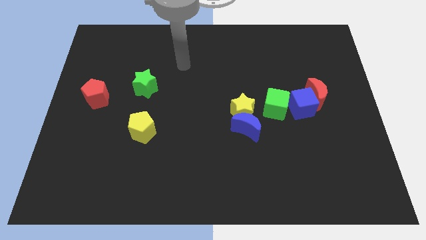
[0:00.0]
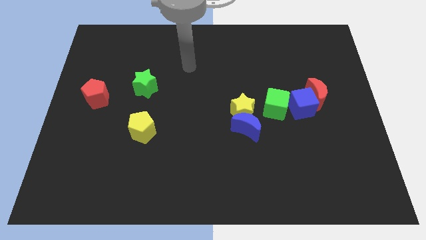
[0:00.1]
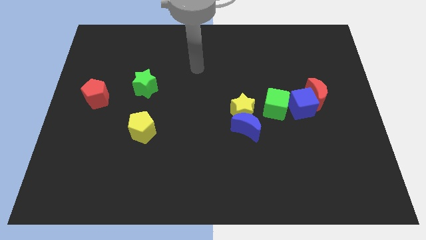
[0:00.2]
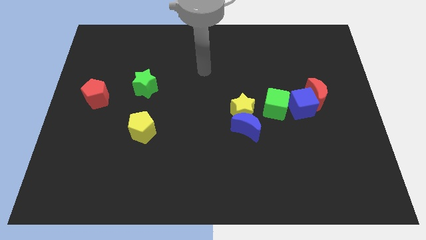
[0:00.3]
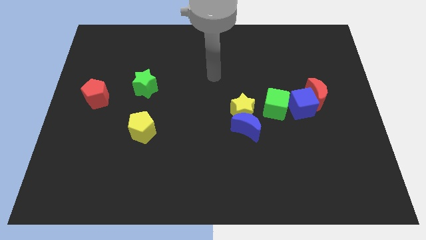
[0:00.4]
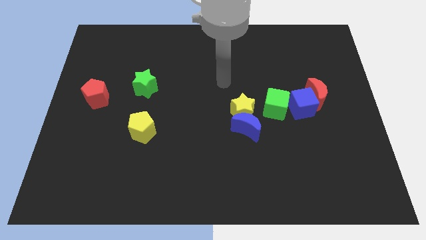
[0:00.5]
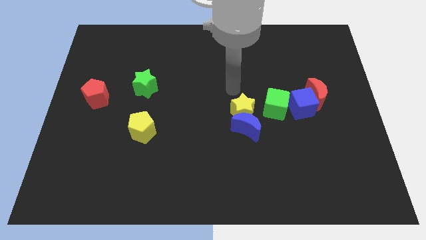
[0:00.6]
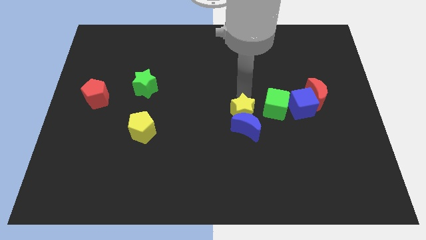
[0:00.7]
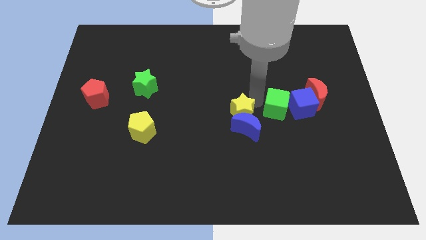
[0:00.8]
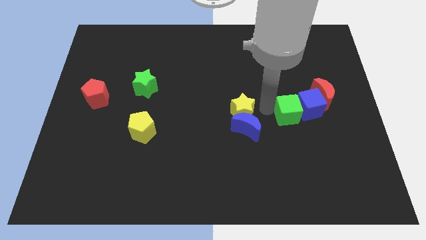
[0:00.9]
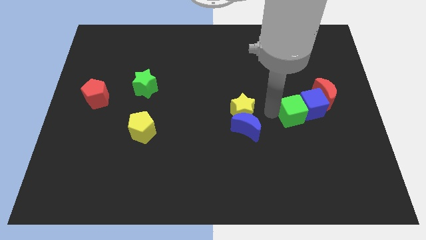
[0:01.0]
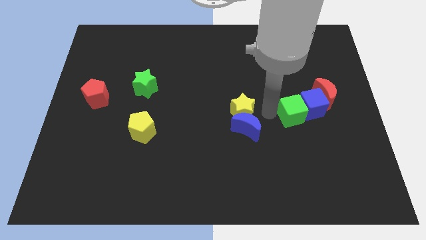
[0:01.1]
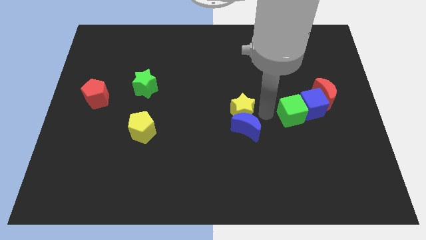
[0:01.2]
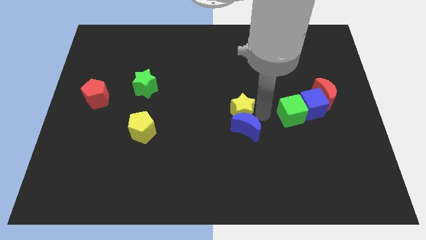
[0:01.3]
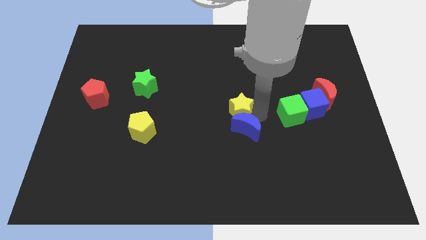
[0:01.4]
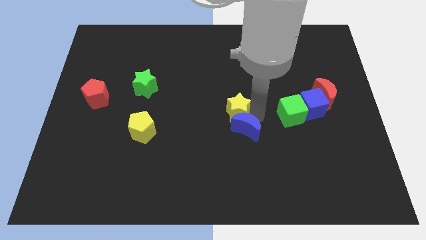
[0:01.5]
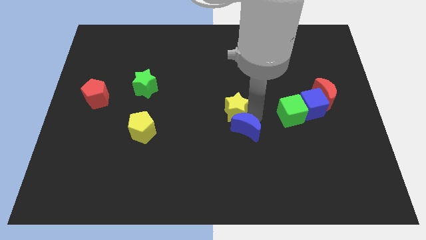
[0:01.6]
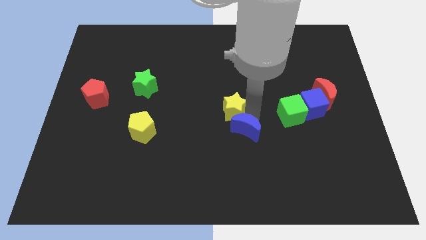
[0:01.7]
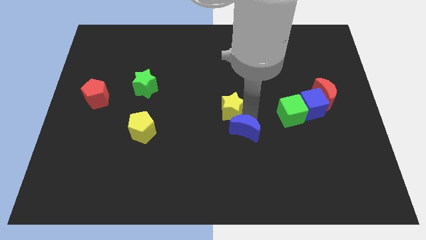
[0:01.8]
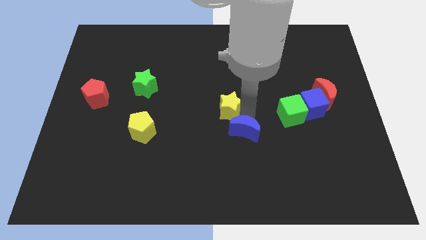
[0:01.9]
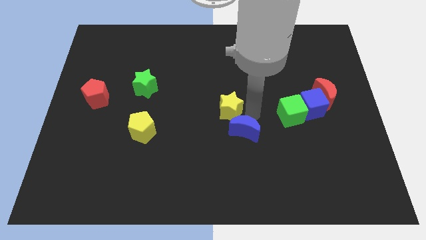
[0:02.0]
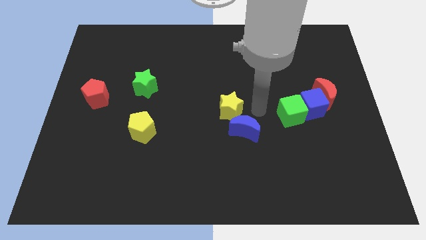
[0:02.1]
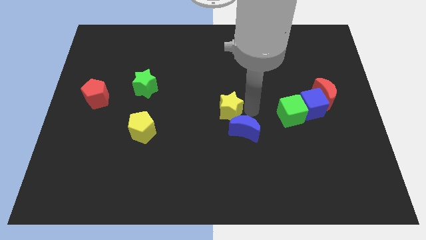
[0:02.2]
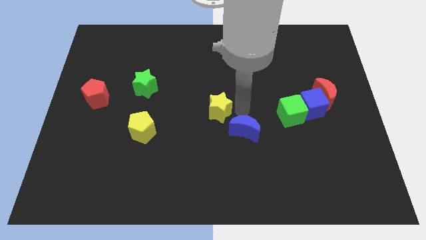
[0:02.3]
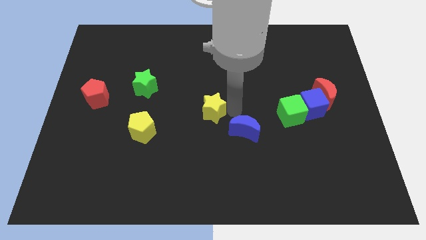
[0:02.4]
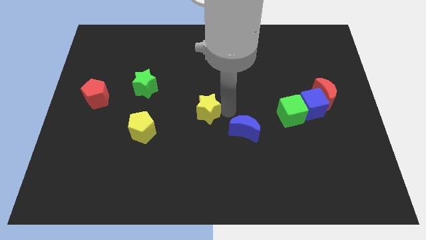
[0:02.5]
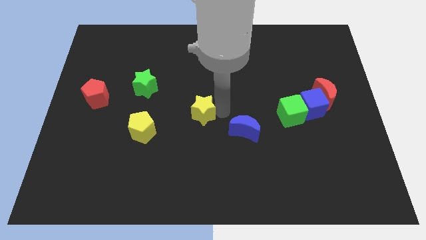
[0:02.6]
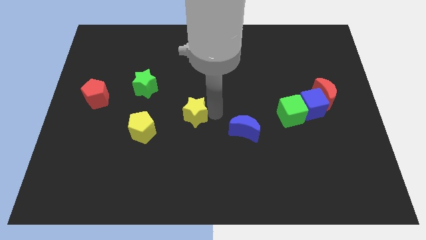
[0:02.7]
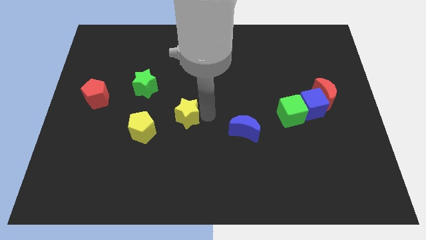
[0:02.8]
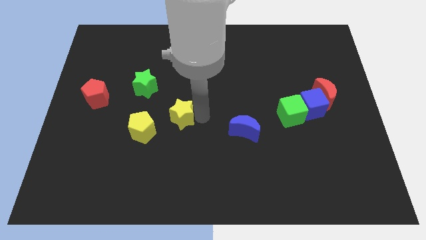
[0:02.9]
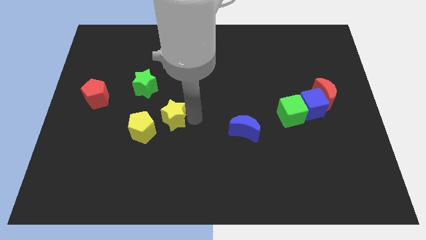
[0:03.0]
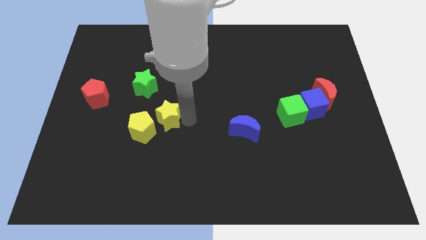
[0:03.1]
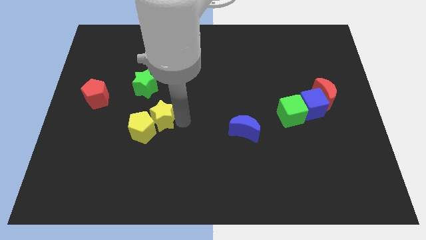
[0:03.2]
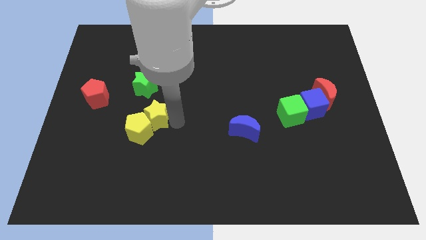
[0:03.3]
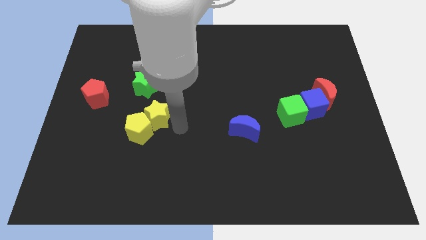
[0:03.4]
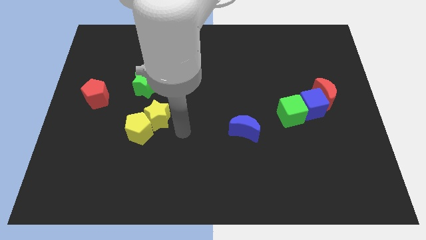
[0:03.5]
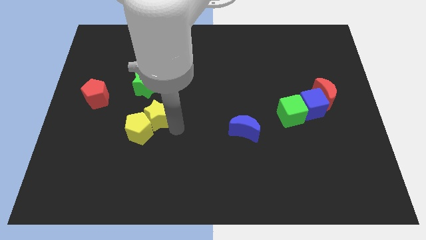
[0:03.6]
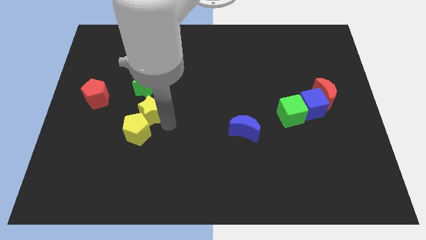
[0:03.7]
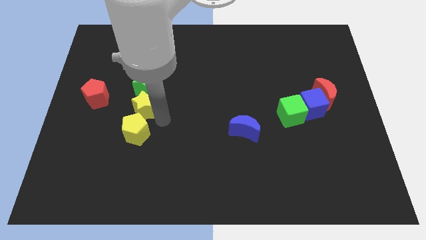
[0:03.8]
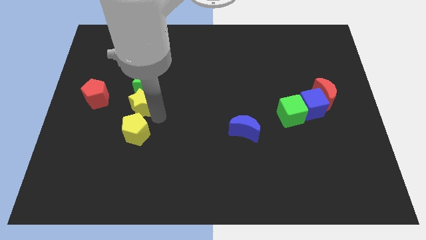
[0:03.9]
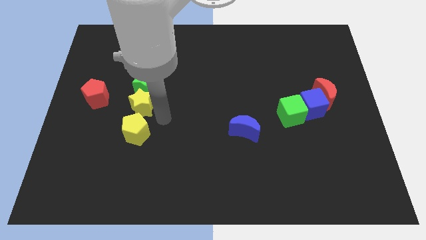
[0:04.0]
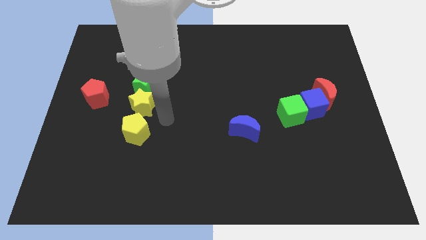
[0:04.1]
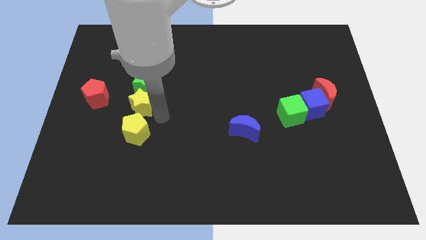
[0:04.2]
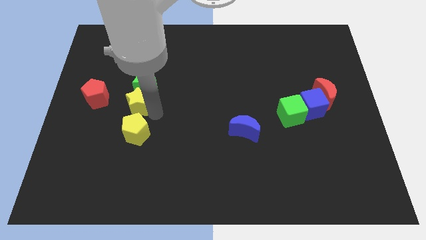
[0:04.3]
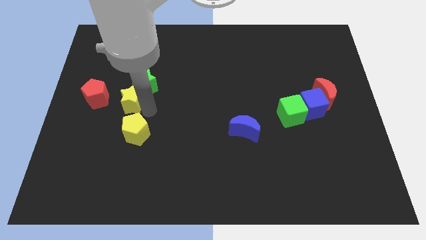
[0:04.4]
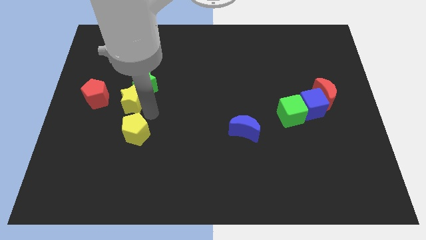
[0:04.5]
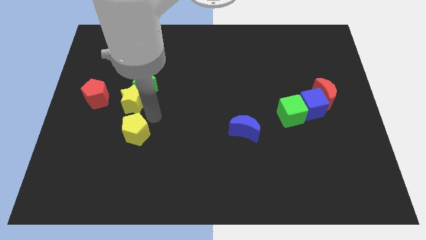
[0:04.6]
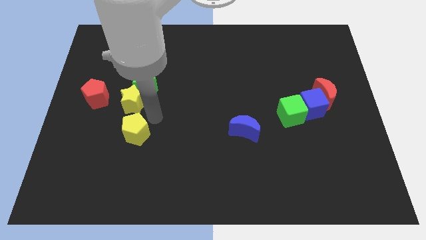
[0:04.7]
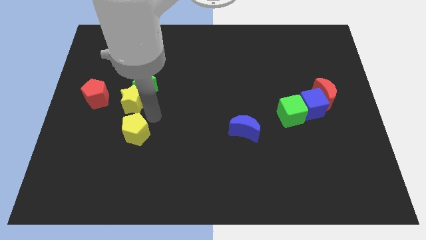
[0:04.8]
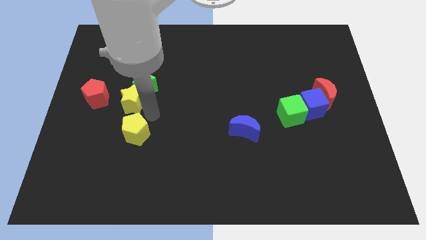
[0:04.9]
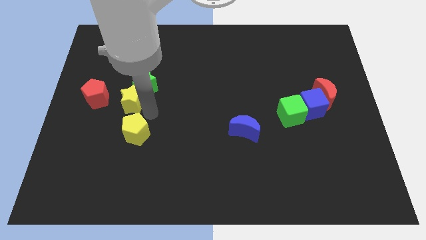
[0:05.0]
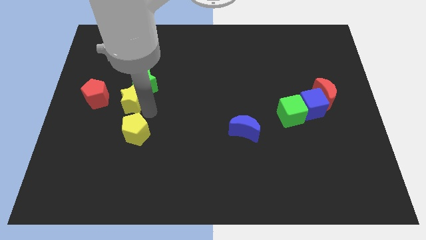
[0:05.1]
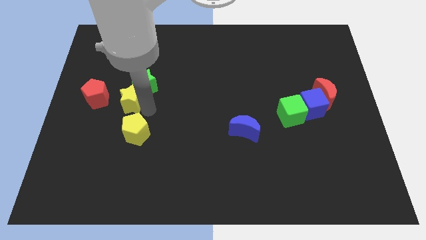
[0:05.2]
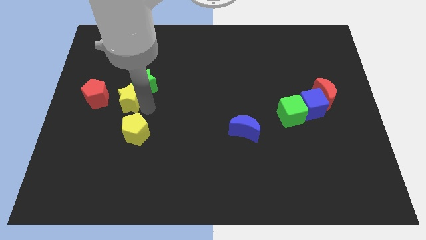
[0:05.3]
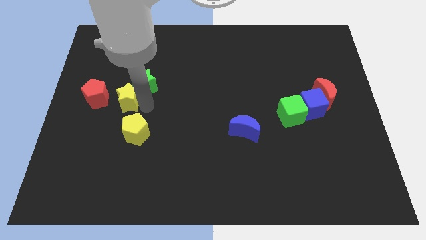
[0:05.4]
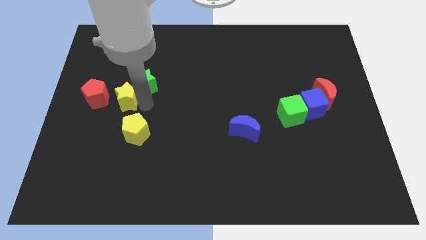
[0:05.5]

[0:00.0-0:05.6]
push the yellow star to the left side of the green star

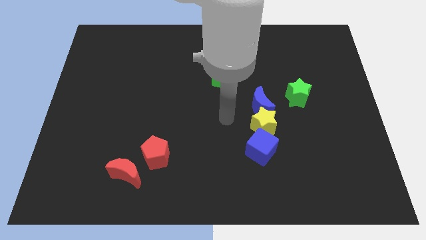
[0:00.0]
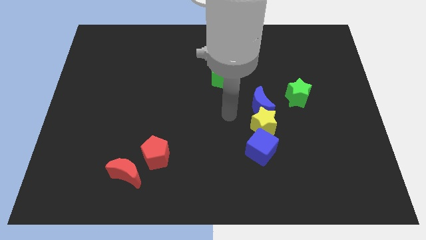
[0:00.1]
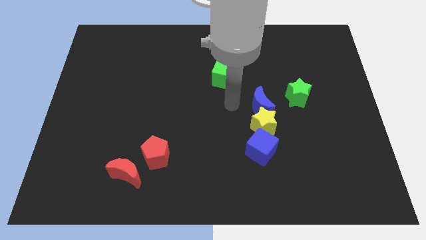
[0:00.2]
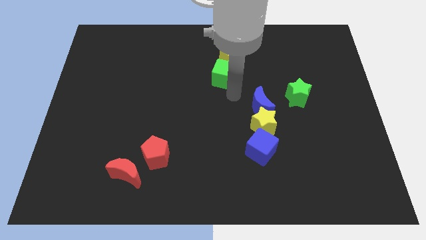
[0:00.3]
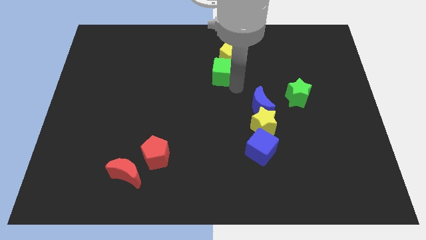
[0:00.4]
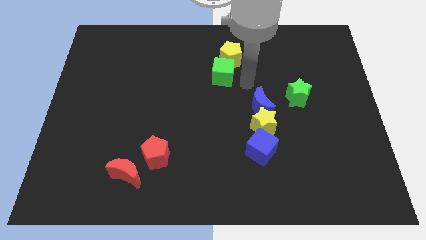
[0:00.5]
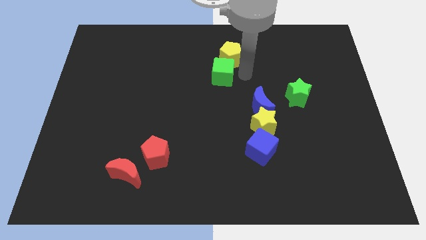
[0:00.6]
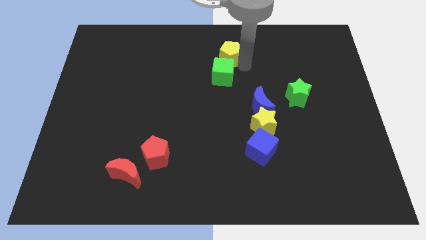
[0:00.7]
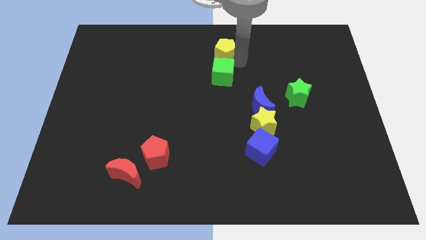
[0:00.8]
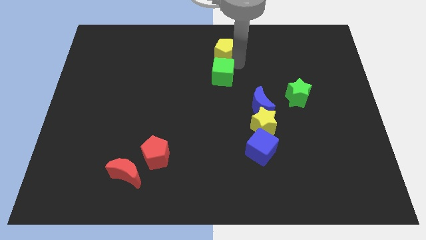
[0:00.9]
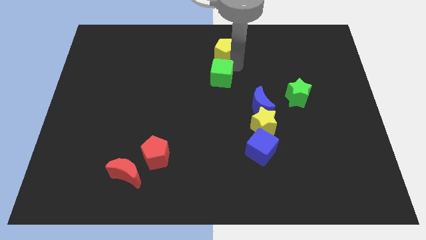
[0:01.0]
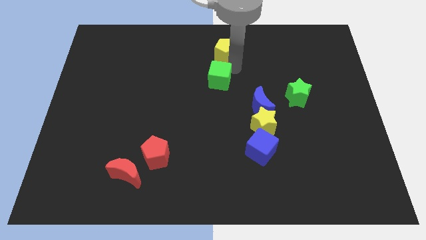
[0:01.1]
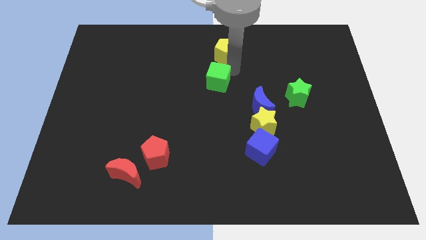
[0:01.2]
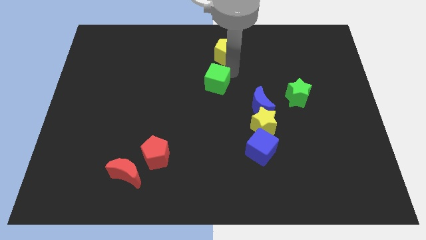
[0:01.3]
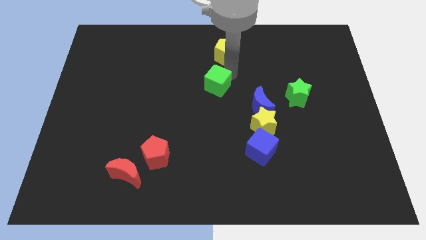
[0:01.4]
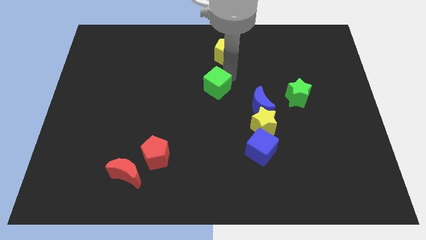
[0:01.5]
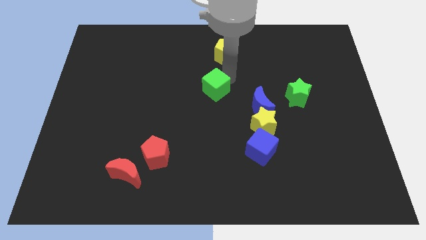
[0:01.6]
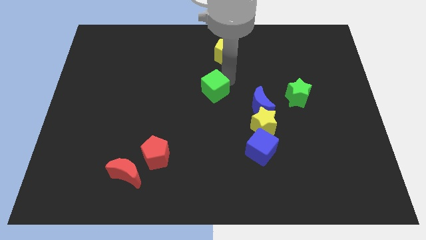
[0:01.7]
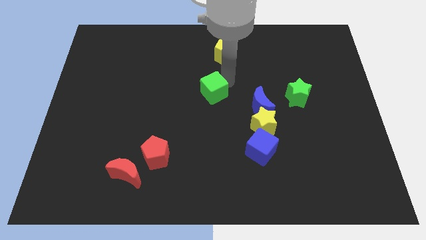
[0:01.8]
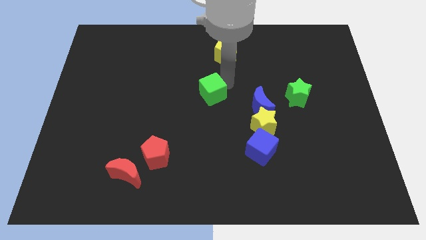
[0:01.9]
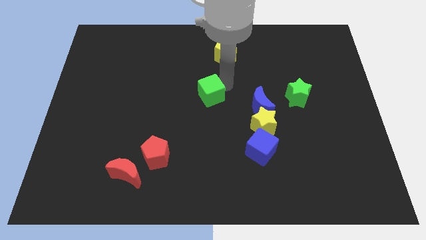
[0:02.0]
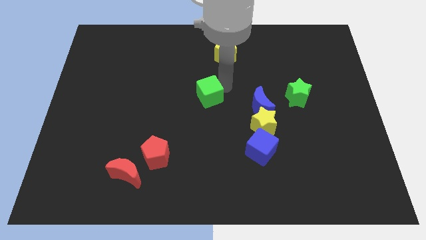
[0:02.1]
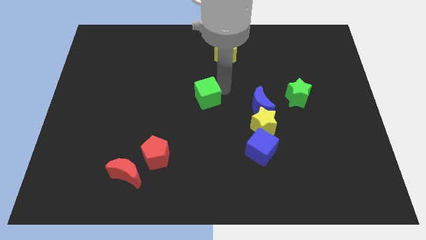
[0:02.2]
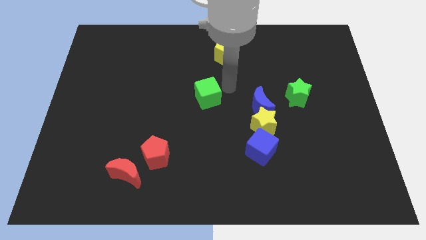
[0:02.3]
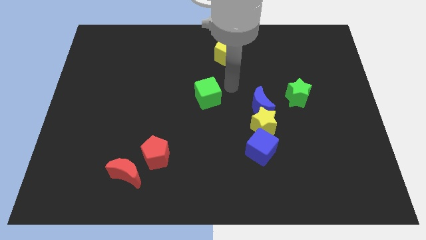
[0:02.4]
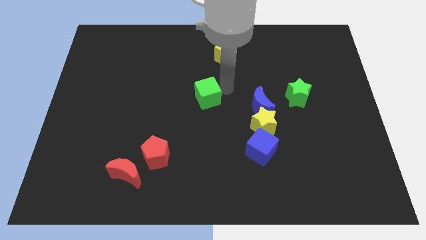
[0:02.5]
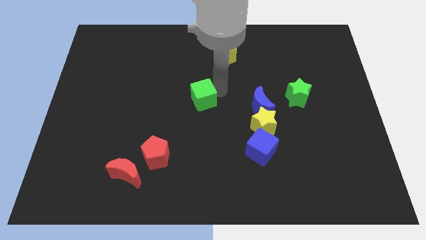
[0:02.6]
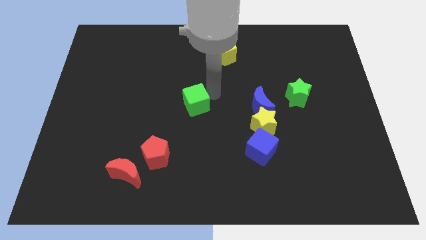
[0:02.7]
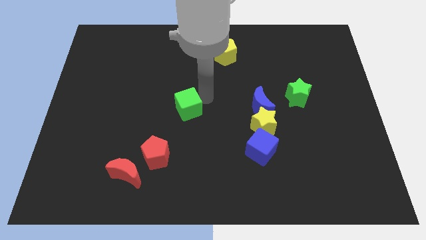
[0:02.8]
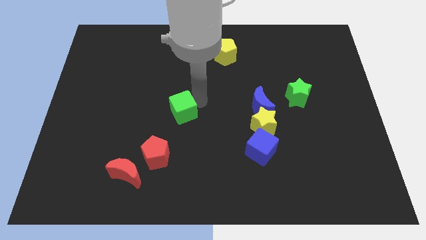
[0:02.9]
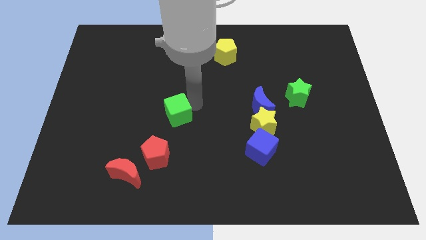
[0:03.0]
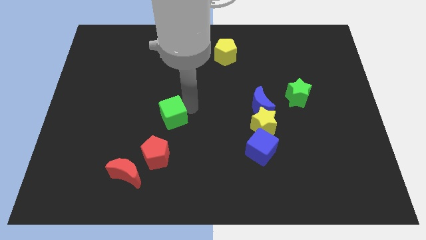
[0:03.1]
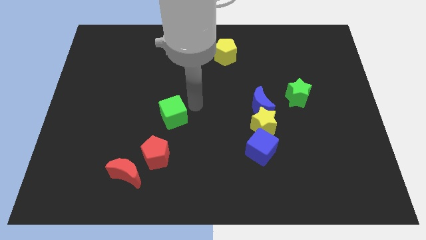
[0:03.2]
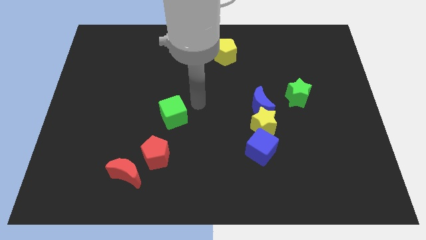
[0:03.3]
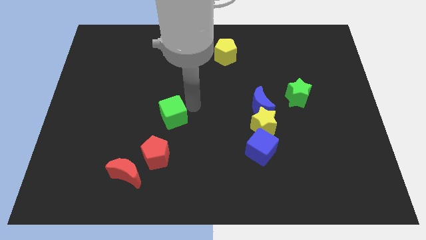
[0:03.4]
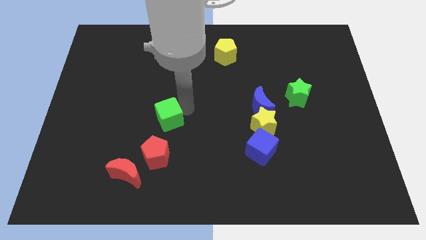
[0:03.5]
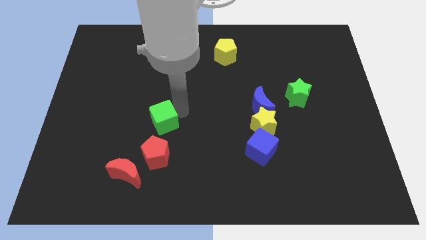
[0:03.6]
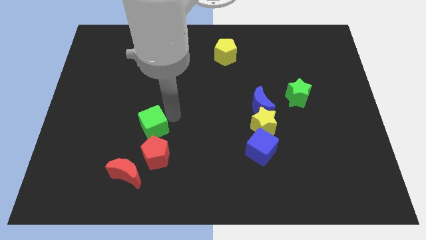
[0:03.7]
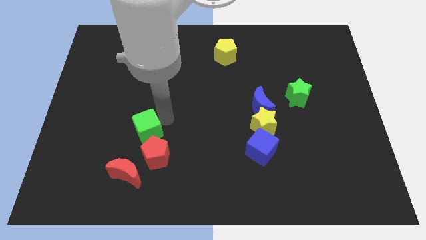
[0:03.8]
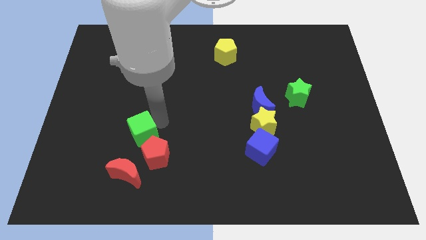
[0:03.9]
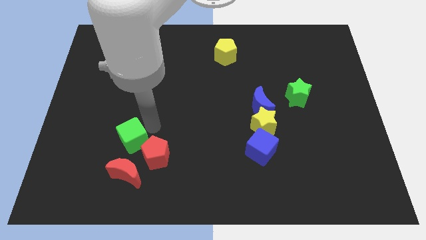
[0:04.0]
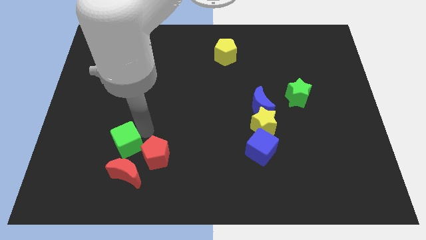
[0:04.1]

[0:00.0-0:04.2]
push the green cube to the top left side of the red moon
